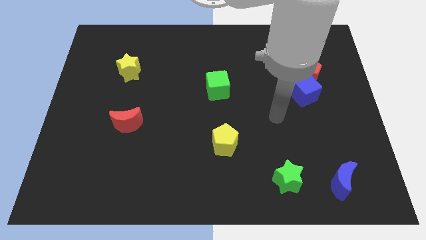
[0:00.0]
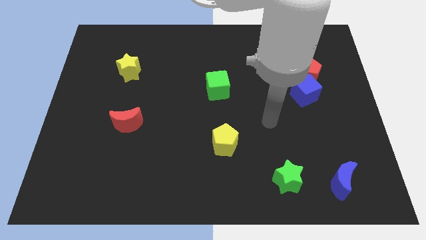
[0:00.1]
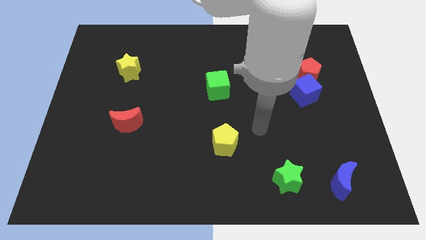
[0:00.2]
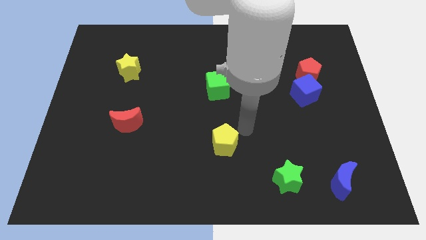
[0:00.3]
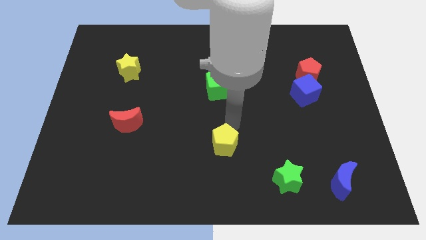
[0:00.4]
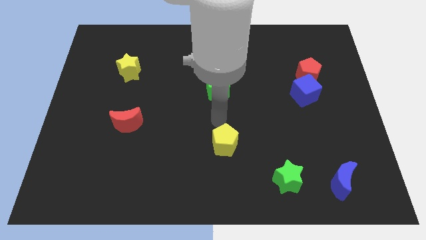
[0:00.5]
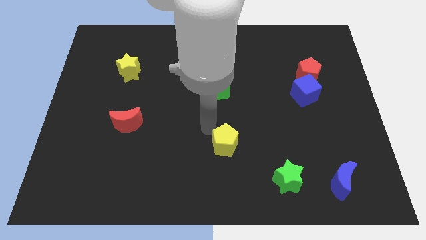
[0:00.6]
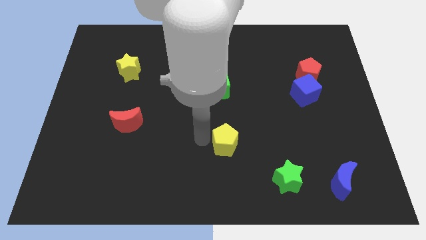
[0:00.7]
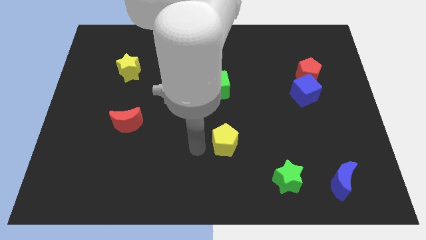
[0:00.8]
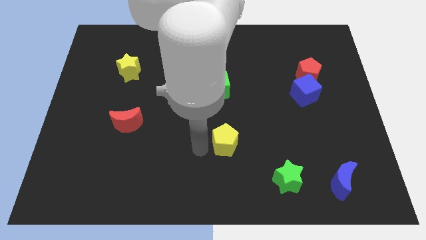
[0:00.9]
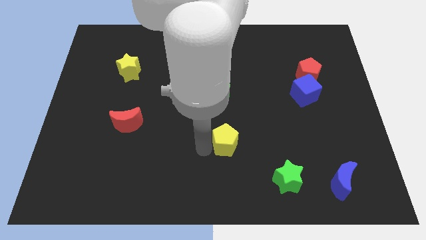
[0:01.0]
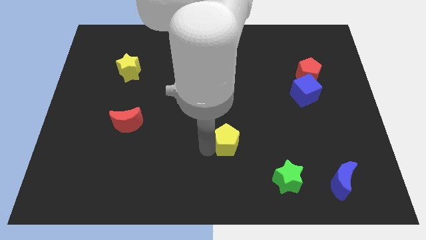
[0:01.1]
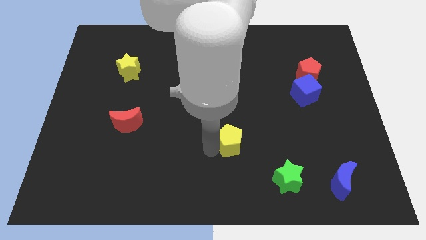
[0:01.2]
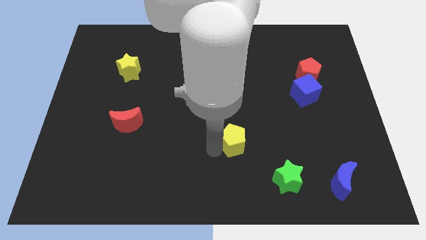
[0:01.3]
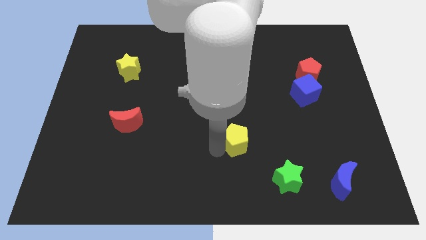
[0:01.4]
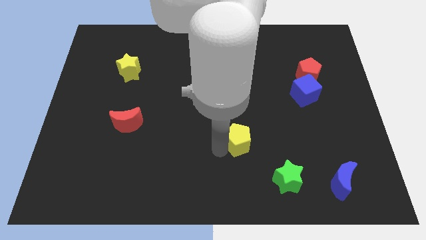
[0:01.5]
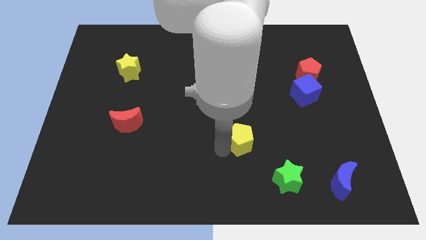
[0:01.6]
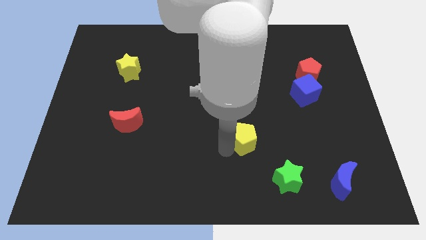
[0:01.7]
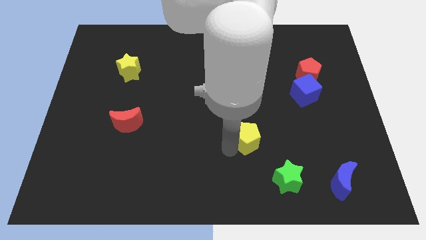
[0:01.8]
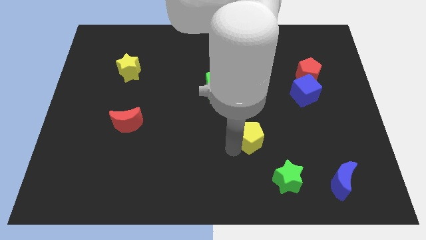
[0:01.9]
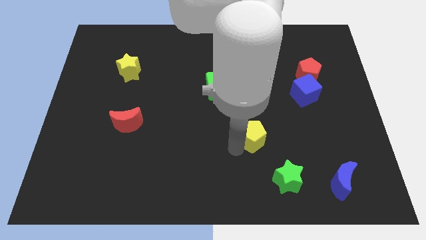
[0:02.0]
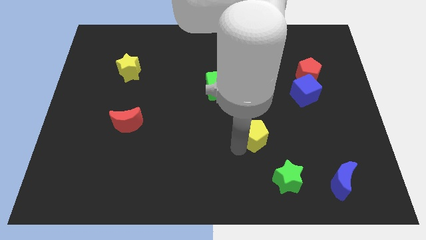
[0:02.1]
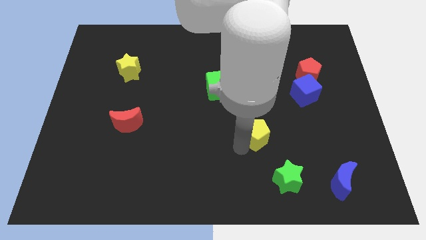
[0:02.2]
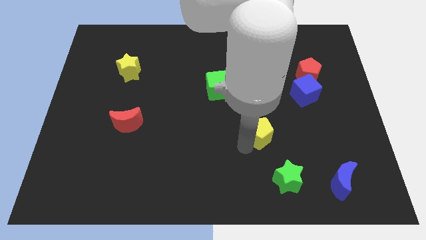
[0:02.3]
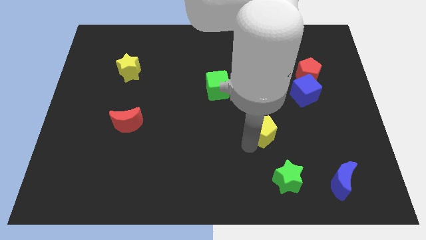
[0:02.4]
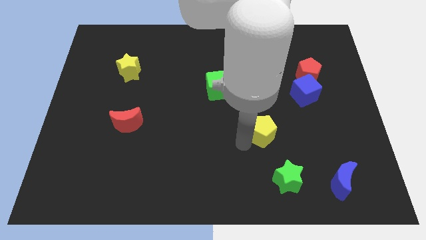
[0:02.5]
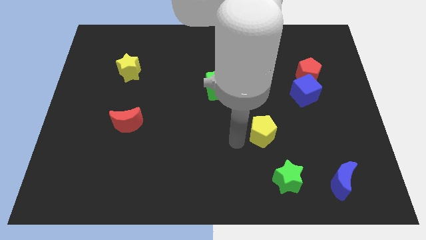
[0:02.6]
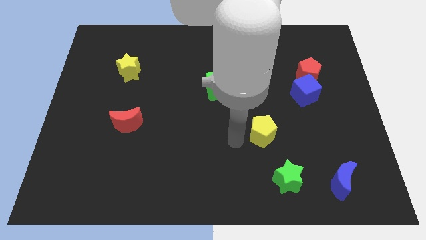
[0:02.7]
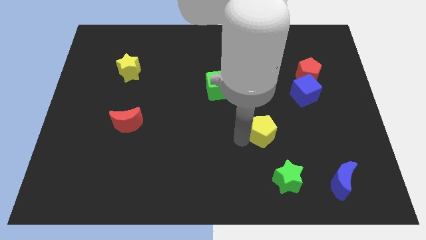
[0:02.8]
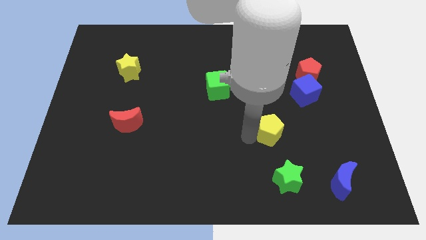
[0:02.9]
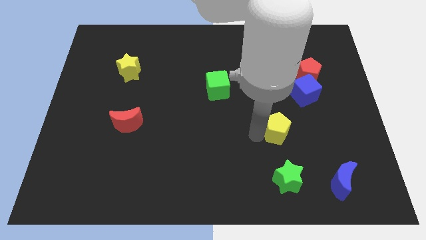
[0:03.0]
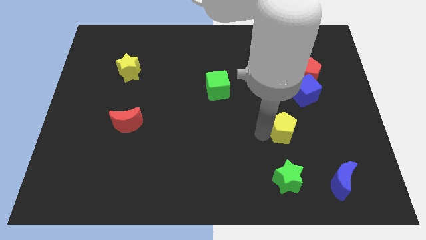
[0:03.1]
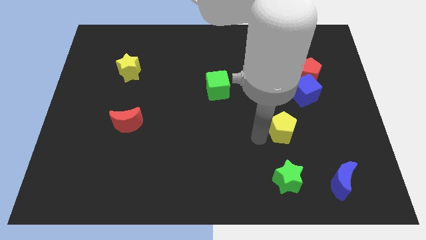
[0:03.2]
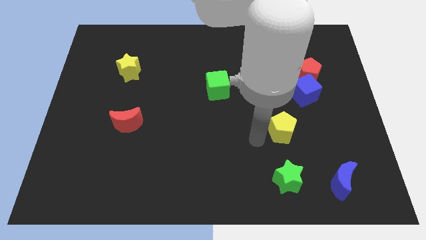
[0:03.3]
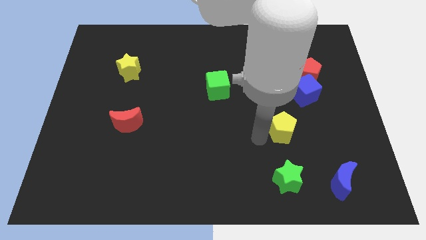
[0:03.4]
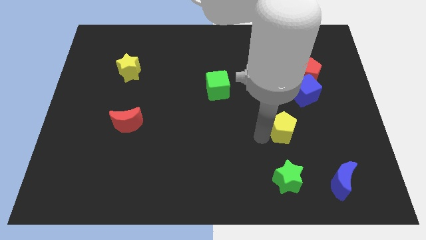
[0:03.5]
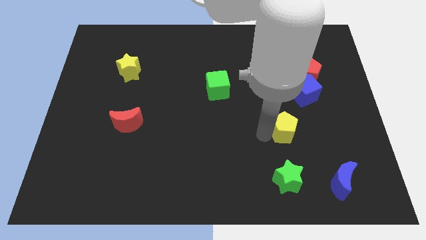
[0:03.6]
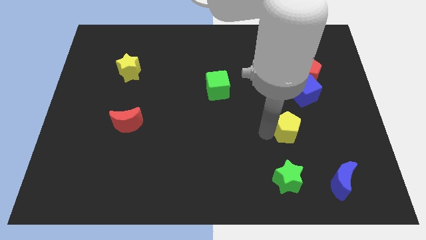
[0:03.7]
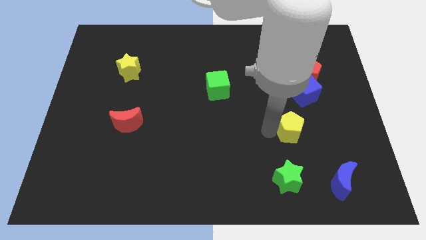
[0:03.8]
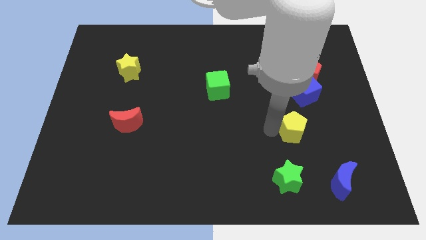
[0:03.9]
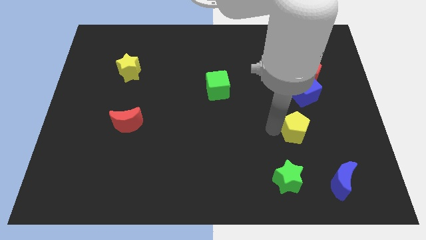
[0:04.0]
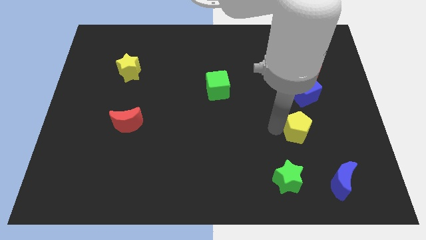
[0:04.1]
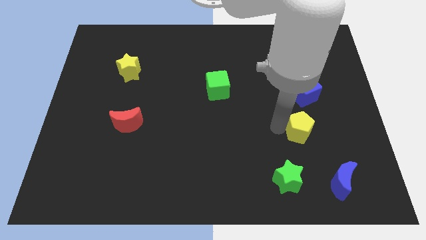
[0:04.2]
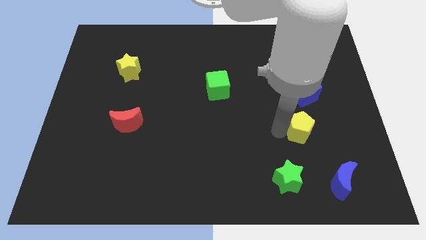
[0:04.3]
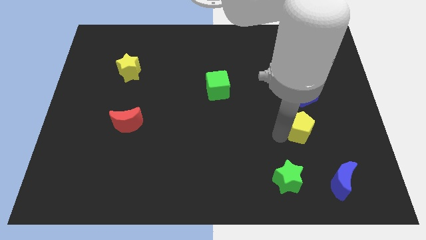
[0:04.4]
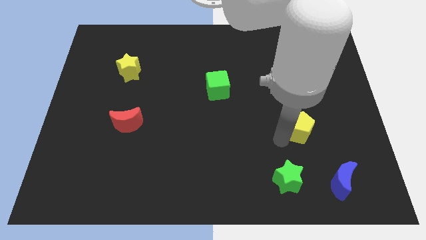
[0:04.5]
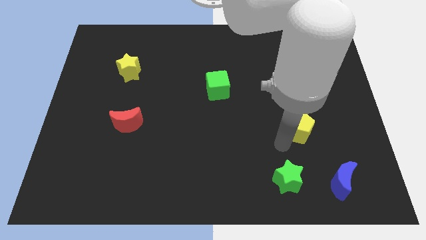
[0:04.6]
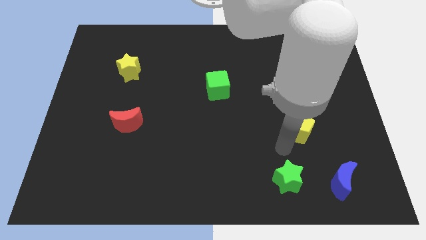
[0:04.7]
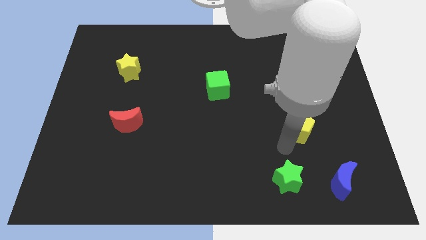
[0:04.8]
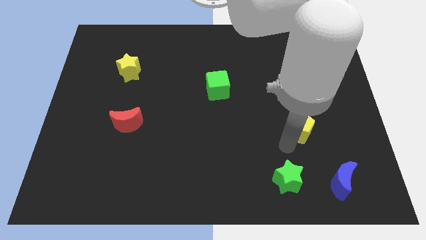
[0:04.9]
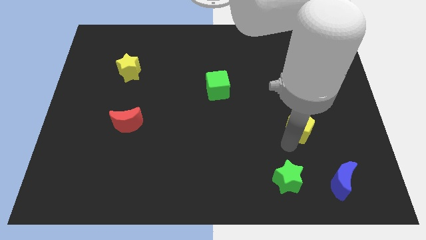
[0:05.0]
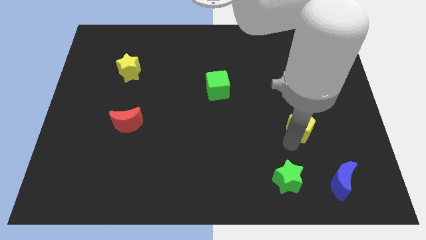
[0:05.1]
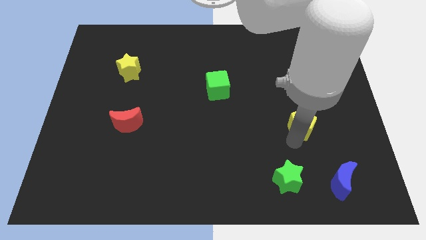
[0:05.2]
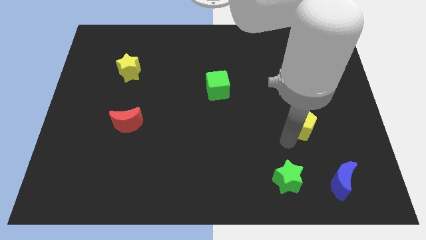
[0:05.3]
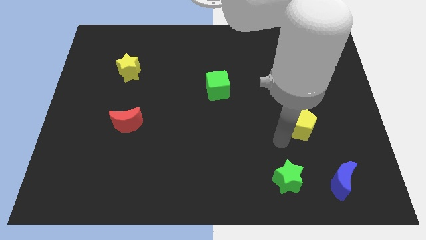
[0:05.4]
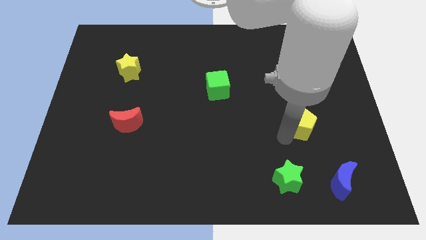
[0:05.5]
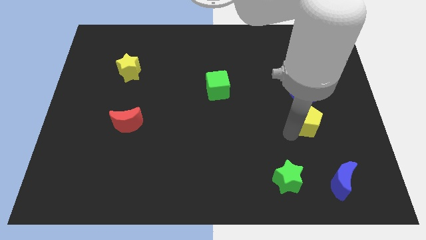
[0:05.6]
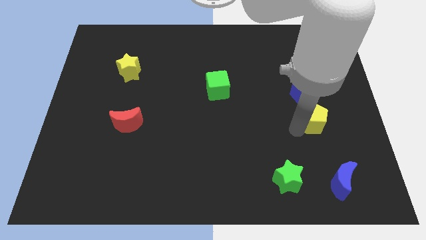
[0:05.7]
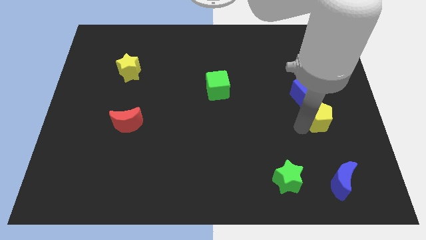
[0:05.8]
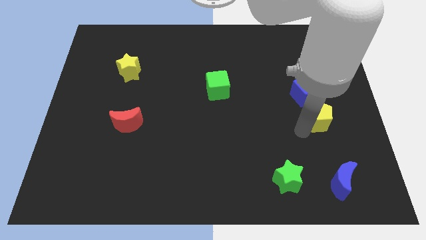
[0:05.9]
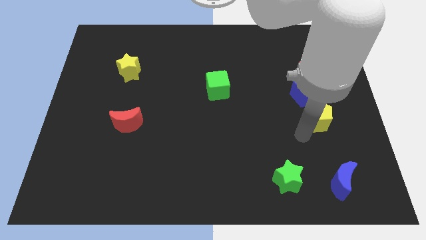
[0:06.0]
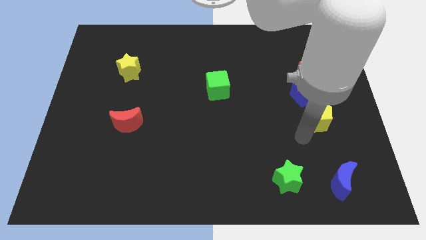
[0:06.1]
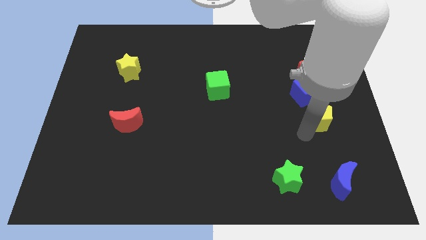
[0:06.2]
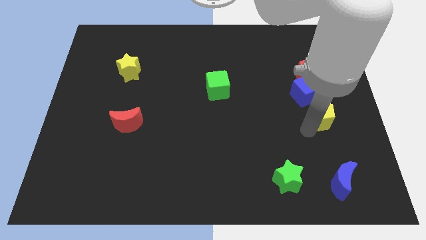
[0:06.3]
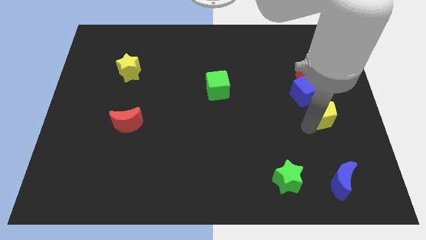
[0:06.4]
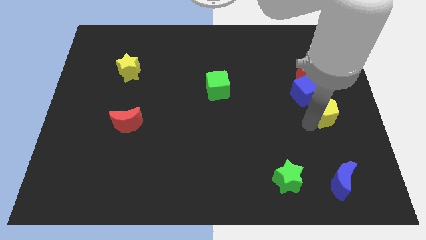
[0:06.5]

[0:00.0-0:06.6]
slide the yellow pentagon to the right side of the board

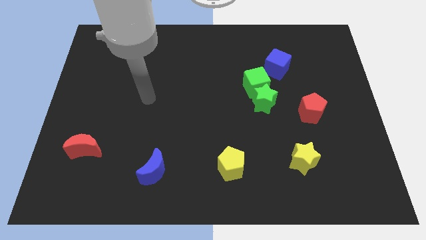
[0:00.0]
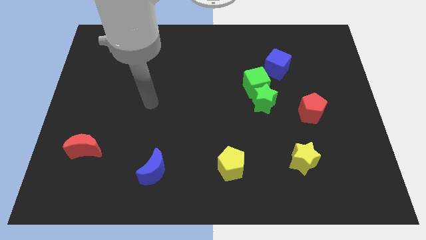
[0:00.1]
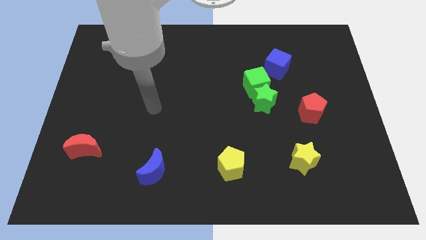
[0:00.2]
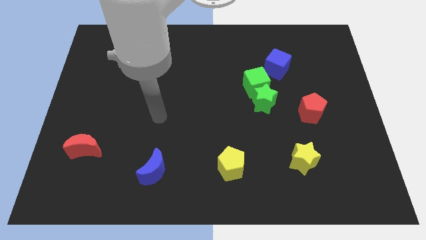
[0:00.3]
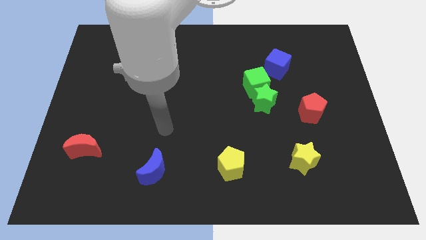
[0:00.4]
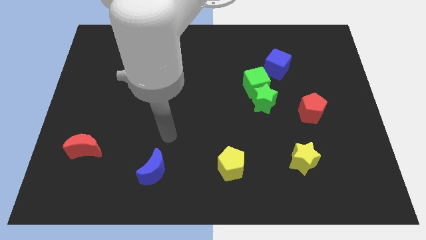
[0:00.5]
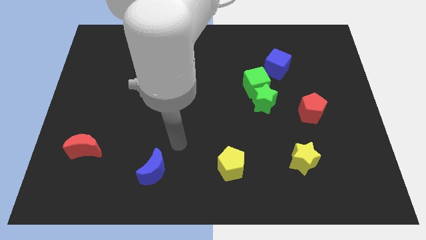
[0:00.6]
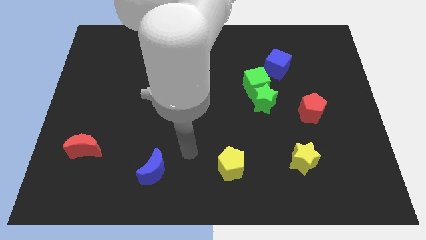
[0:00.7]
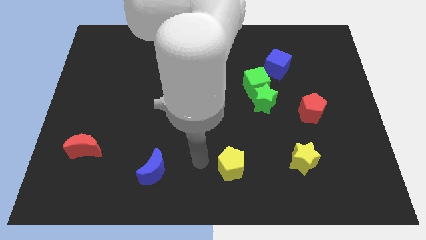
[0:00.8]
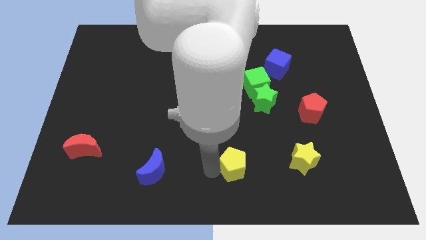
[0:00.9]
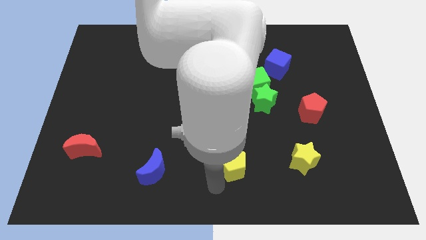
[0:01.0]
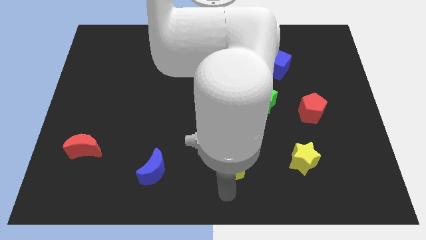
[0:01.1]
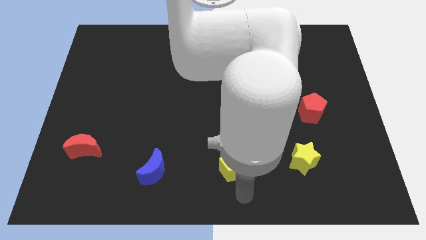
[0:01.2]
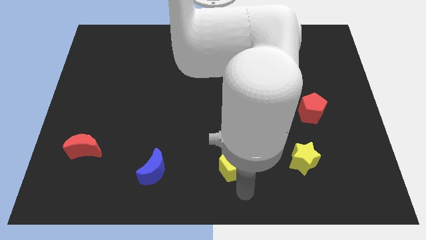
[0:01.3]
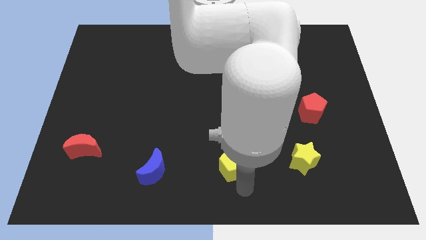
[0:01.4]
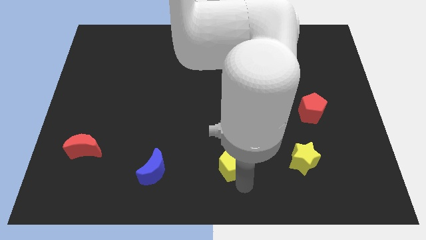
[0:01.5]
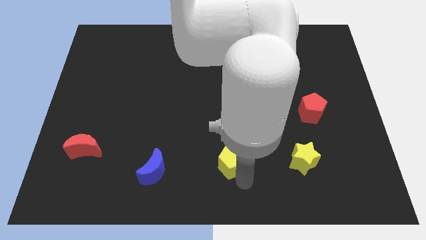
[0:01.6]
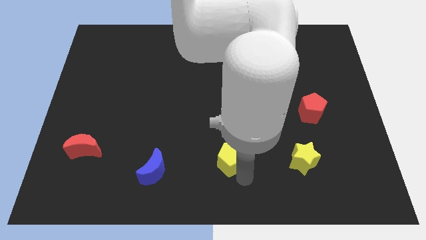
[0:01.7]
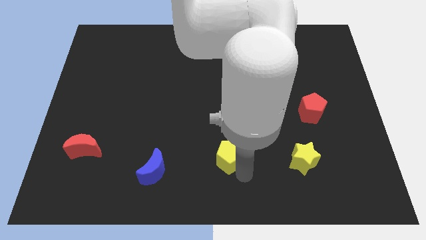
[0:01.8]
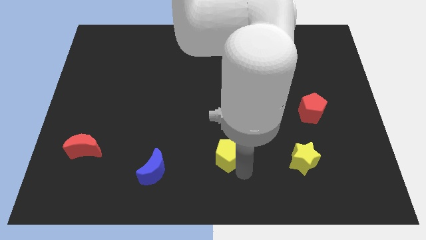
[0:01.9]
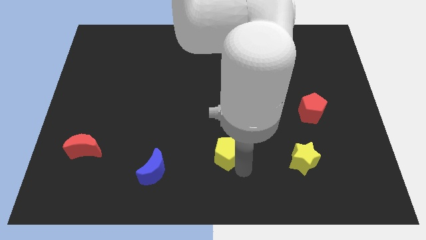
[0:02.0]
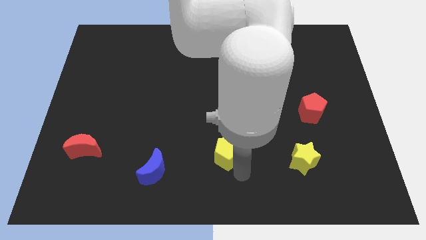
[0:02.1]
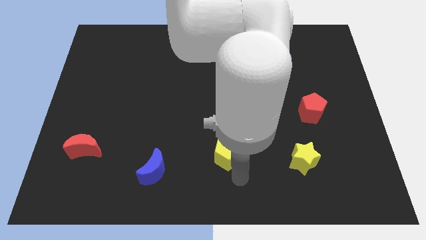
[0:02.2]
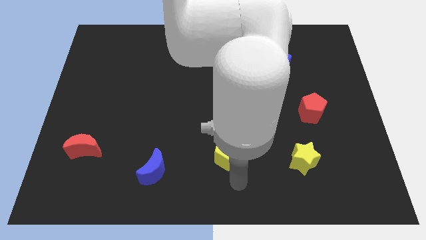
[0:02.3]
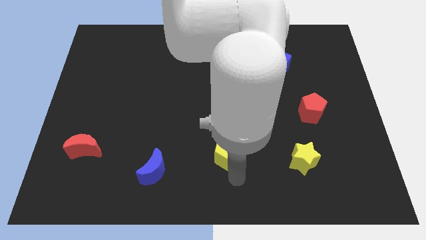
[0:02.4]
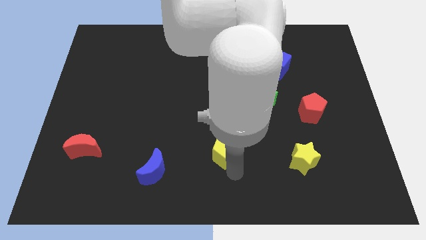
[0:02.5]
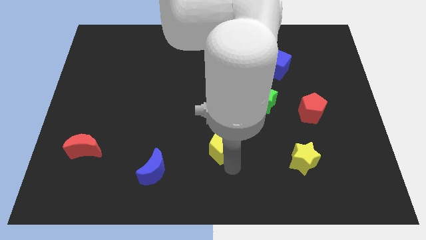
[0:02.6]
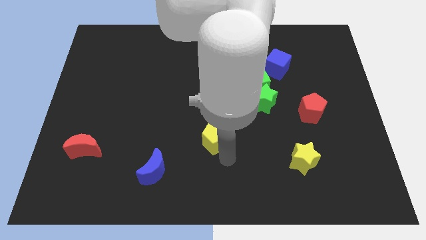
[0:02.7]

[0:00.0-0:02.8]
push the yellow pentagon to the center of the board
